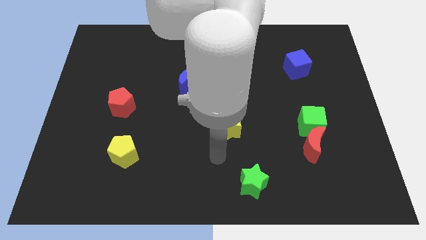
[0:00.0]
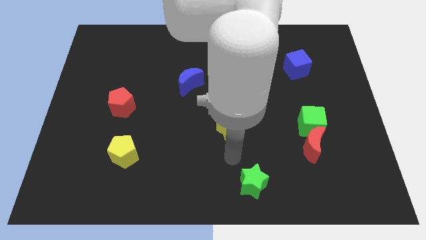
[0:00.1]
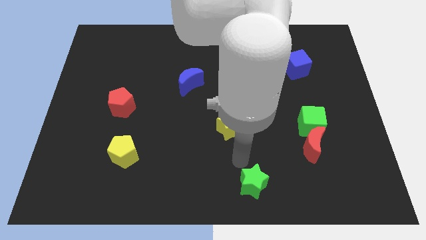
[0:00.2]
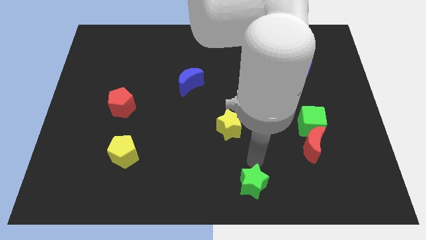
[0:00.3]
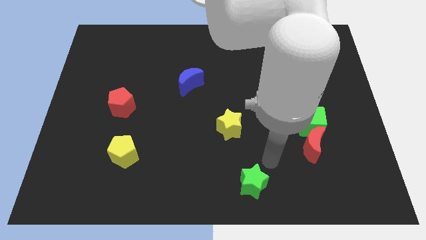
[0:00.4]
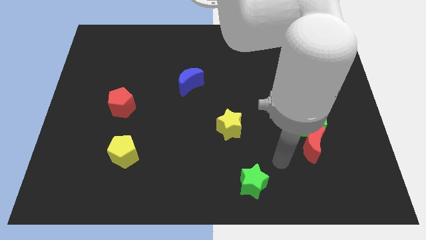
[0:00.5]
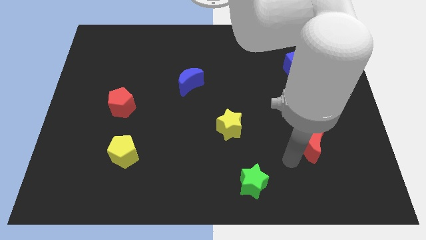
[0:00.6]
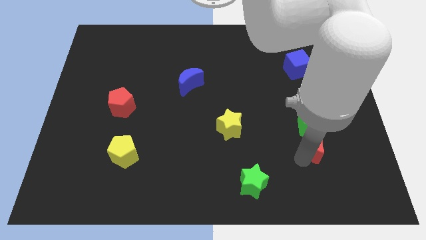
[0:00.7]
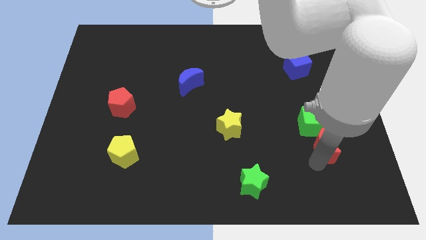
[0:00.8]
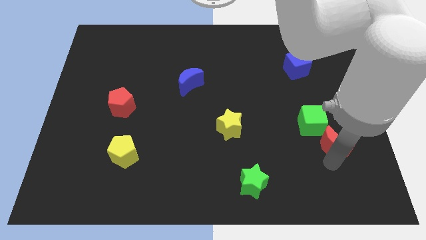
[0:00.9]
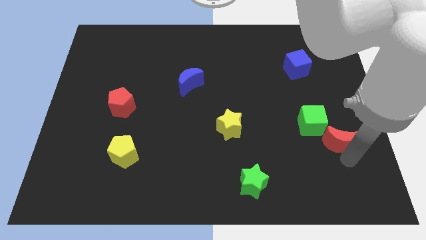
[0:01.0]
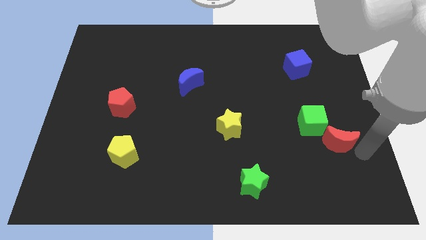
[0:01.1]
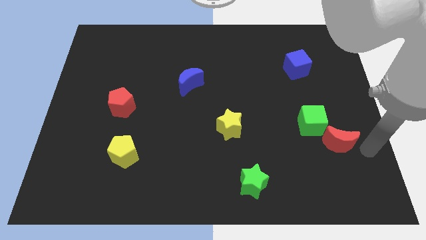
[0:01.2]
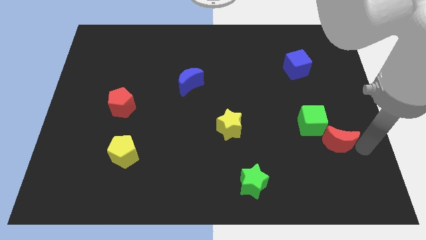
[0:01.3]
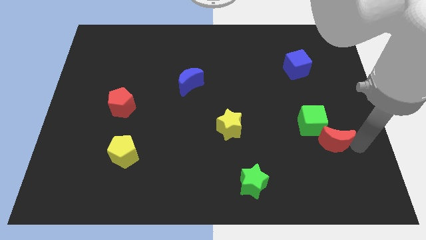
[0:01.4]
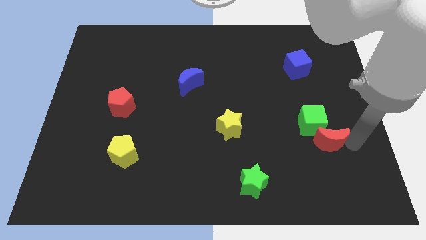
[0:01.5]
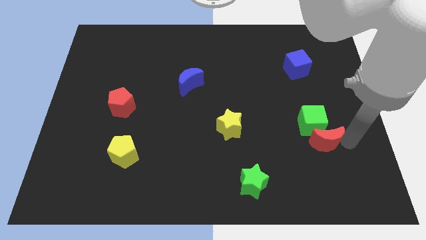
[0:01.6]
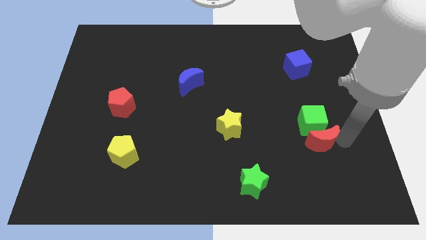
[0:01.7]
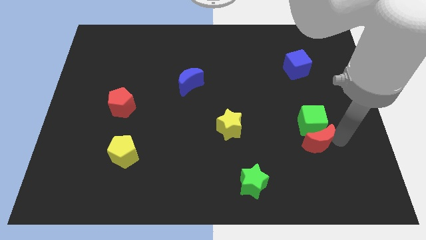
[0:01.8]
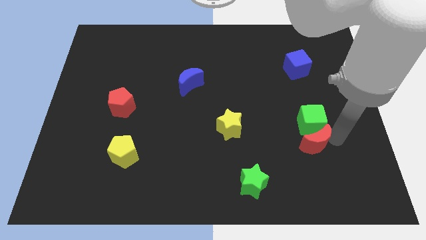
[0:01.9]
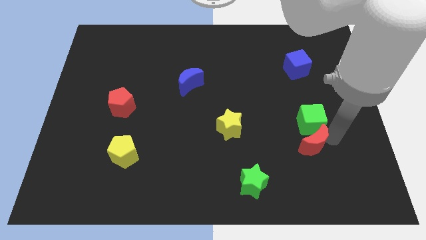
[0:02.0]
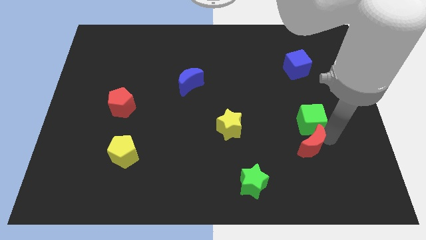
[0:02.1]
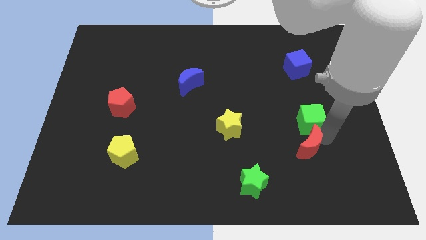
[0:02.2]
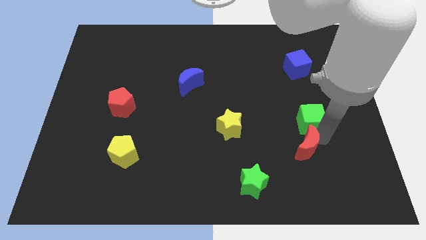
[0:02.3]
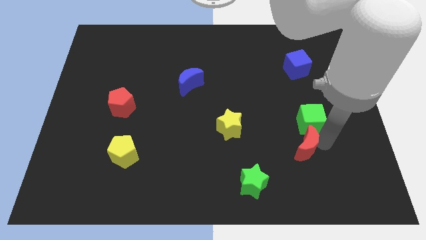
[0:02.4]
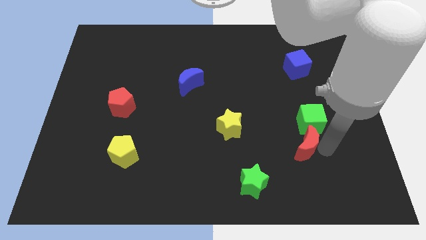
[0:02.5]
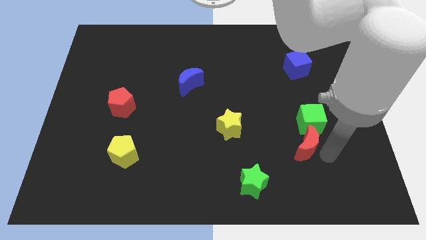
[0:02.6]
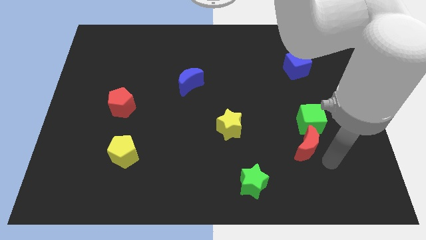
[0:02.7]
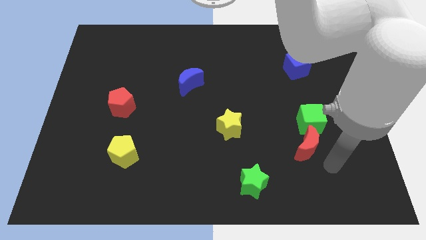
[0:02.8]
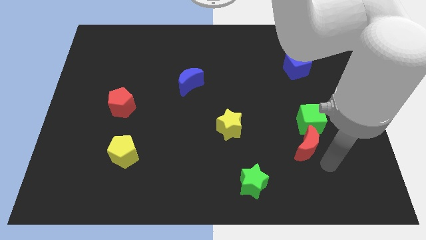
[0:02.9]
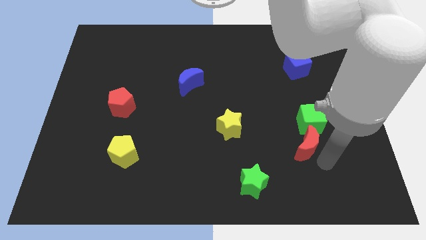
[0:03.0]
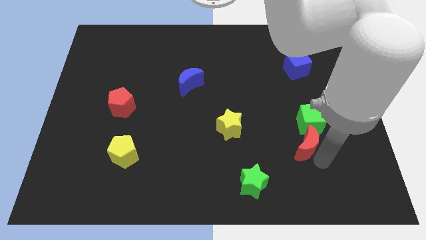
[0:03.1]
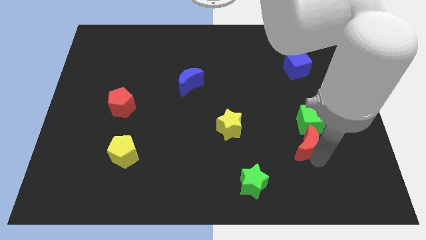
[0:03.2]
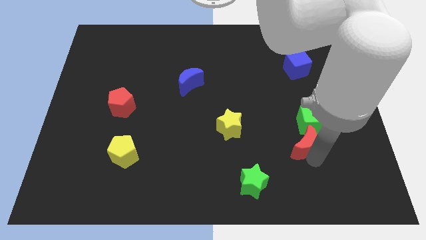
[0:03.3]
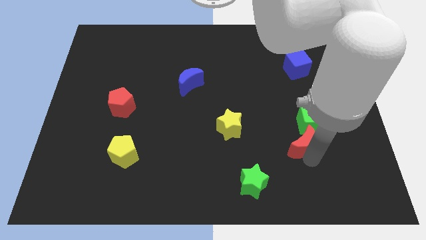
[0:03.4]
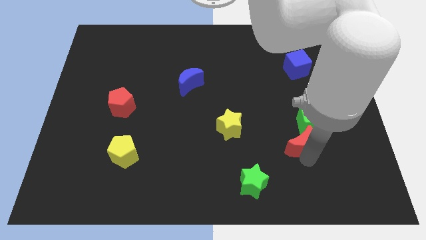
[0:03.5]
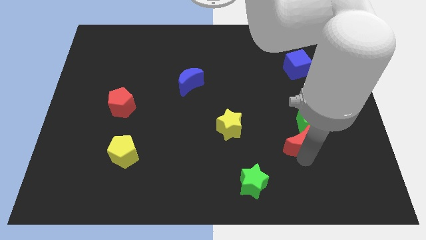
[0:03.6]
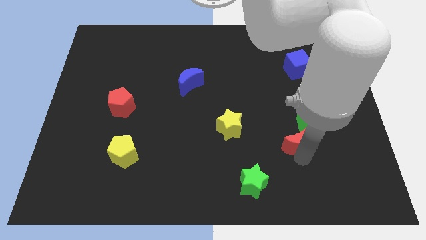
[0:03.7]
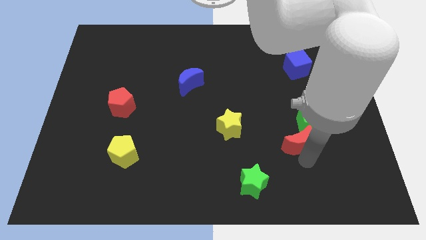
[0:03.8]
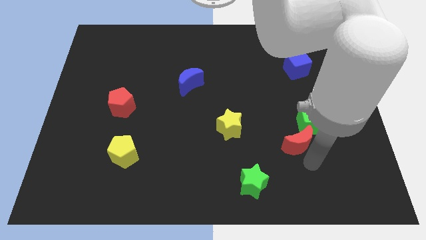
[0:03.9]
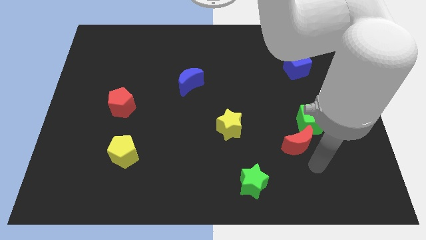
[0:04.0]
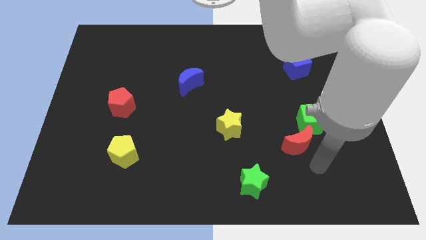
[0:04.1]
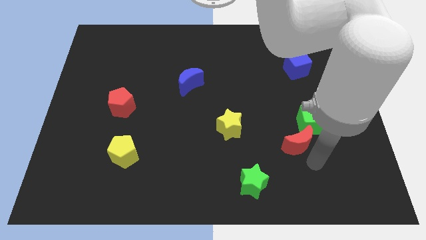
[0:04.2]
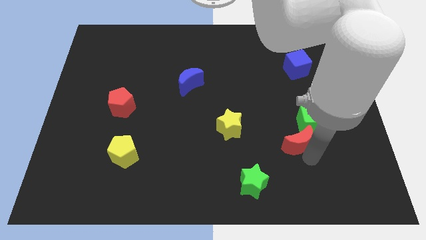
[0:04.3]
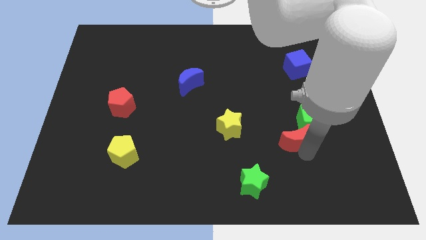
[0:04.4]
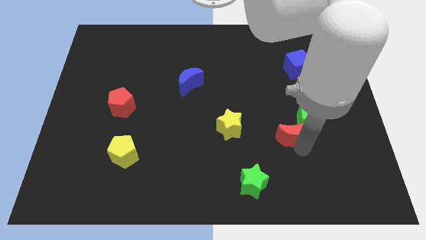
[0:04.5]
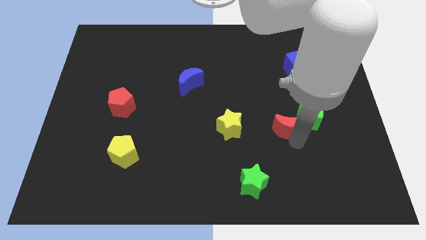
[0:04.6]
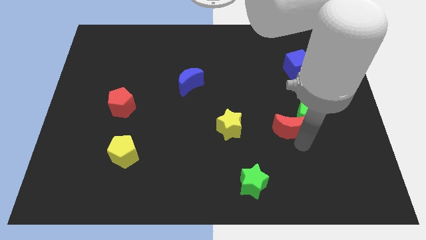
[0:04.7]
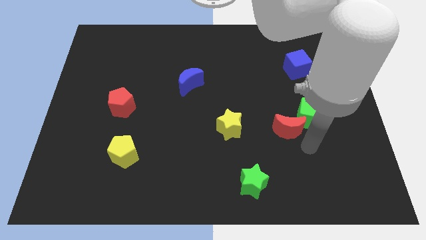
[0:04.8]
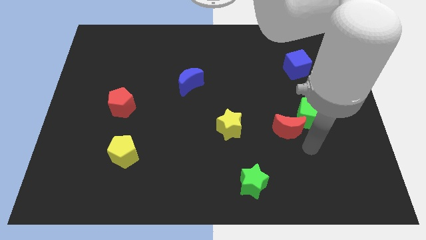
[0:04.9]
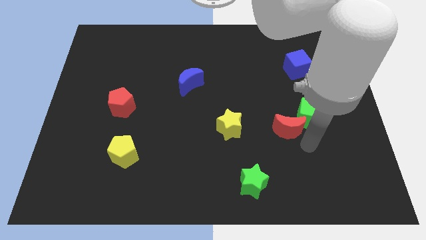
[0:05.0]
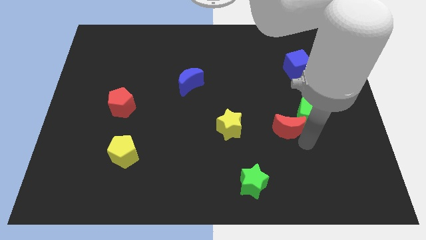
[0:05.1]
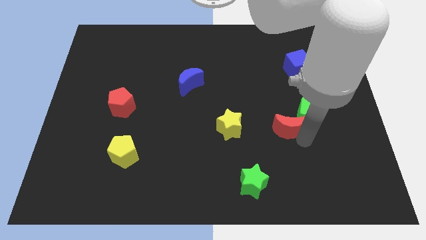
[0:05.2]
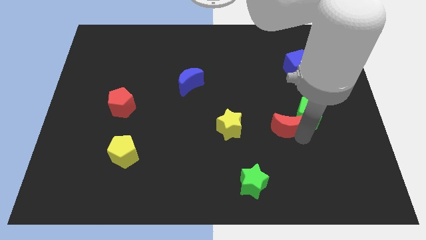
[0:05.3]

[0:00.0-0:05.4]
slide the red moon slightly upwards and then to the left

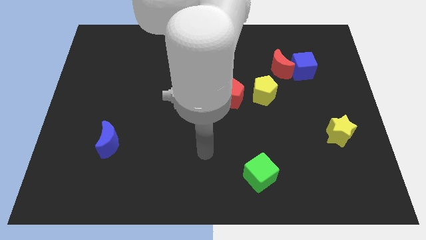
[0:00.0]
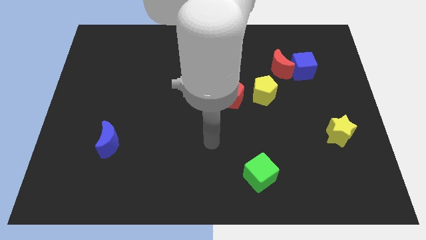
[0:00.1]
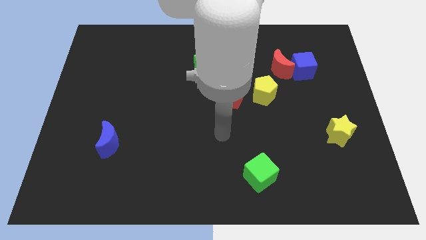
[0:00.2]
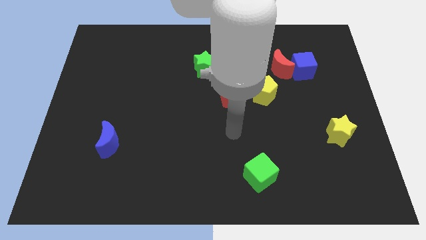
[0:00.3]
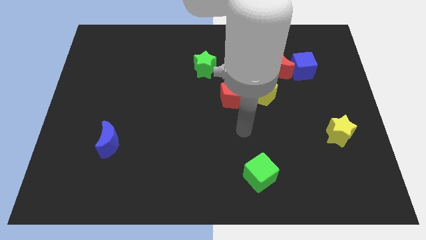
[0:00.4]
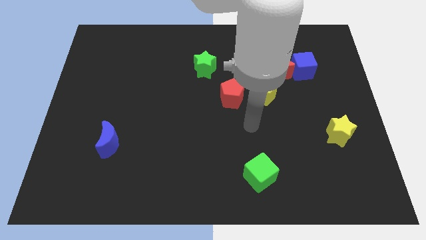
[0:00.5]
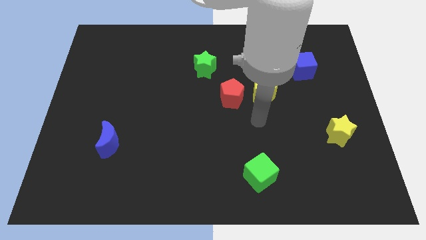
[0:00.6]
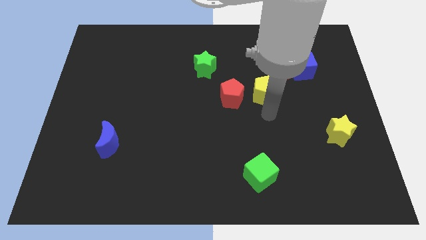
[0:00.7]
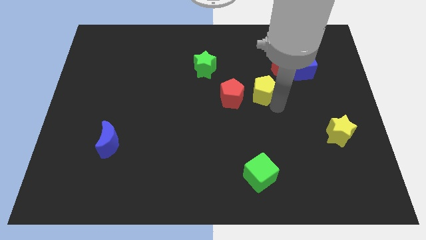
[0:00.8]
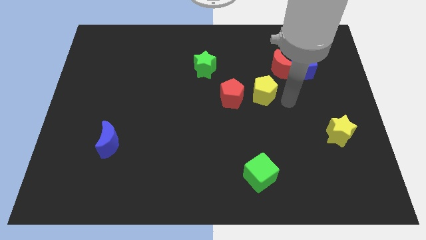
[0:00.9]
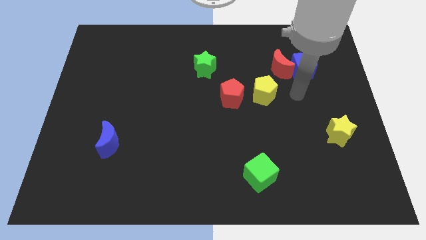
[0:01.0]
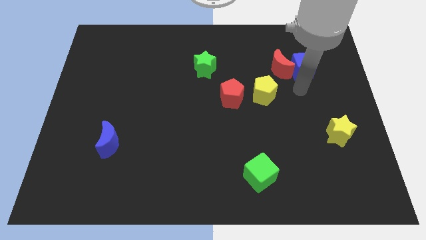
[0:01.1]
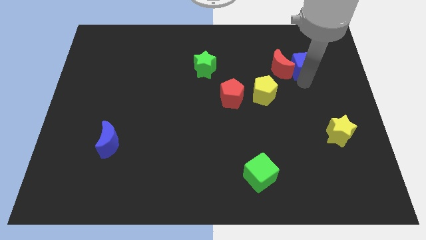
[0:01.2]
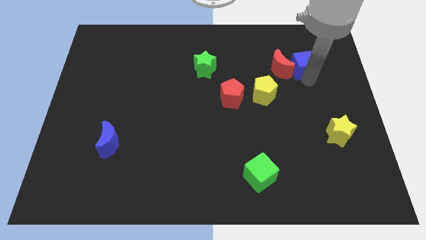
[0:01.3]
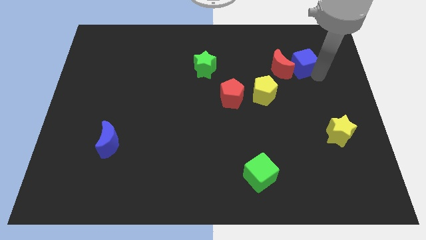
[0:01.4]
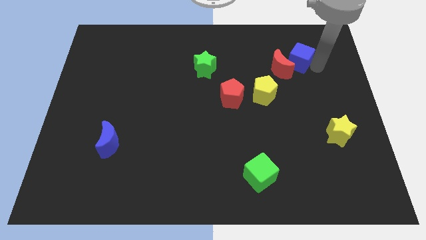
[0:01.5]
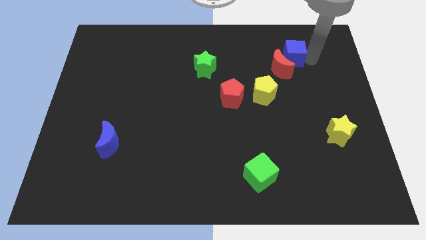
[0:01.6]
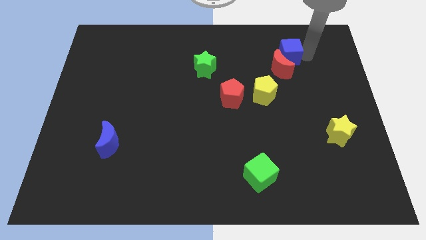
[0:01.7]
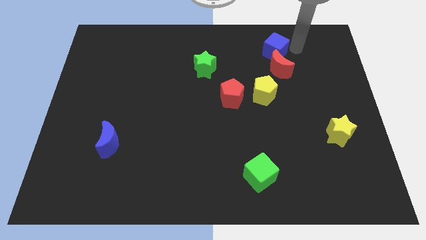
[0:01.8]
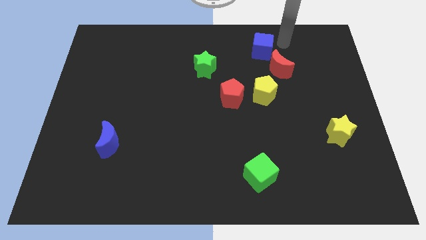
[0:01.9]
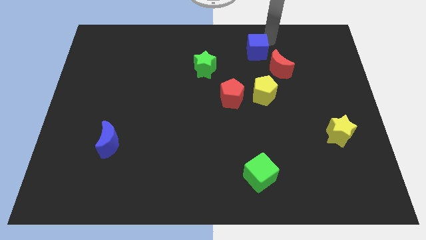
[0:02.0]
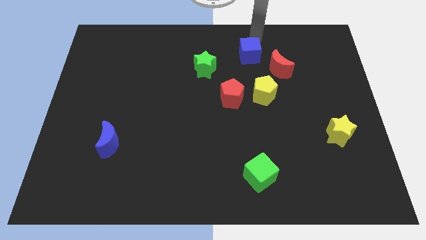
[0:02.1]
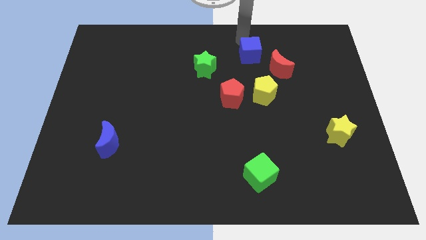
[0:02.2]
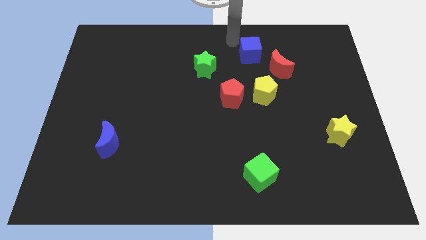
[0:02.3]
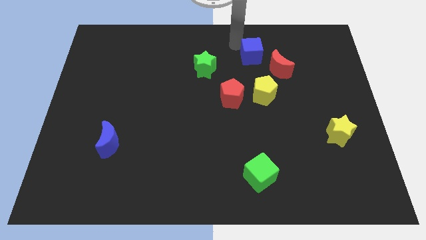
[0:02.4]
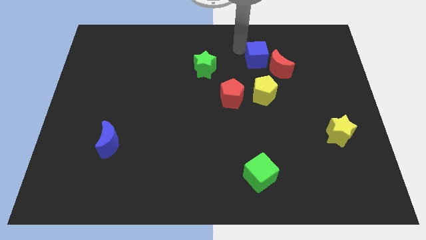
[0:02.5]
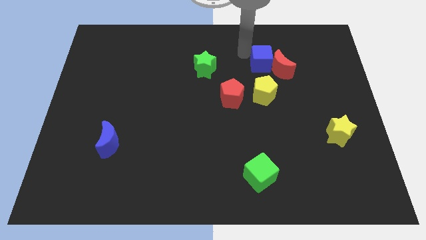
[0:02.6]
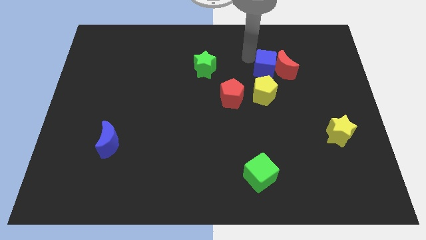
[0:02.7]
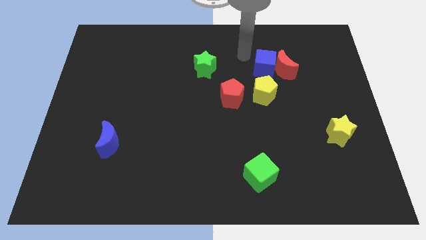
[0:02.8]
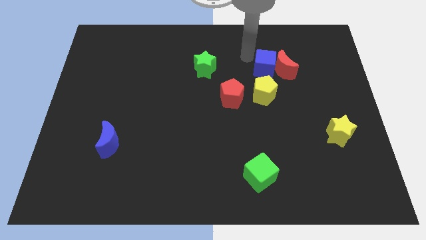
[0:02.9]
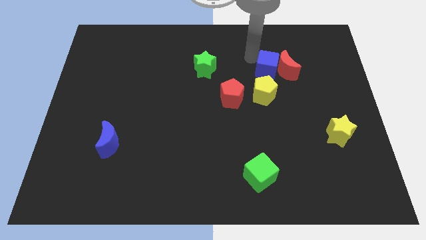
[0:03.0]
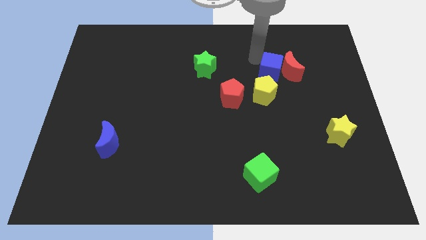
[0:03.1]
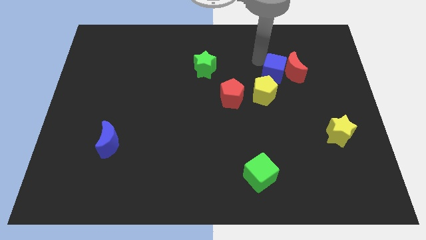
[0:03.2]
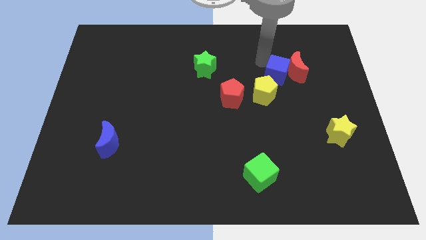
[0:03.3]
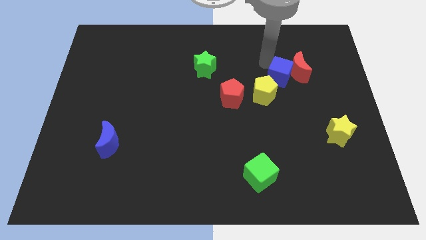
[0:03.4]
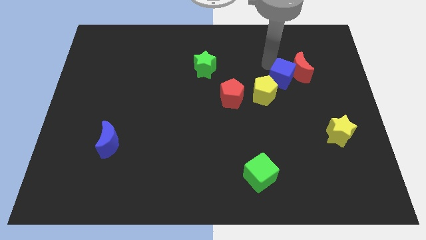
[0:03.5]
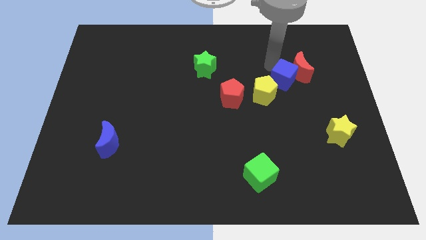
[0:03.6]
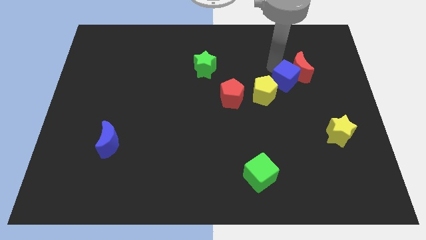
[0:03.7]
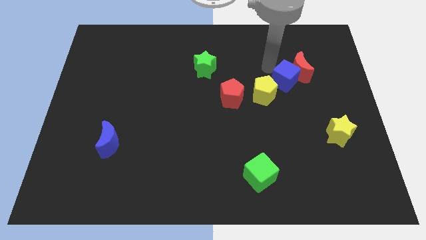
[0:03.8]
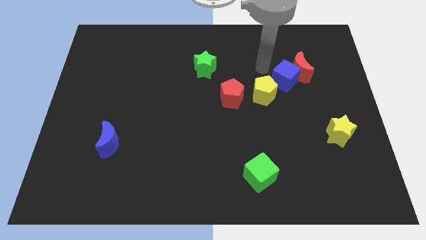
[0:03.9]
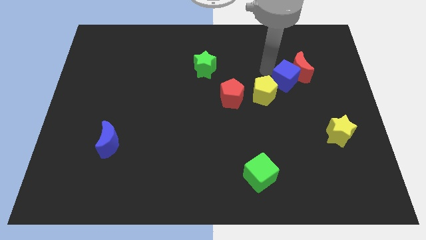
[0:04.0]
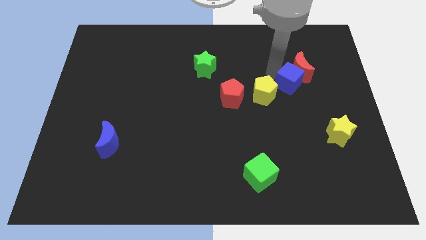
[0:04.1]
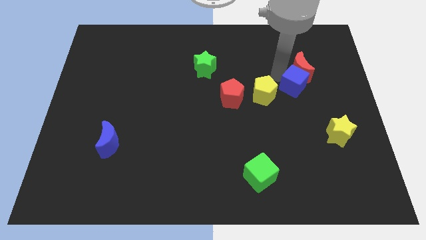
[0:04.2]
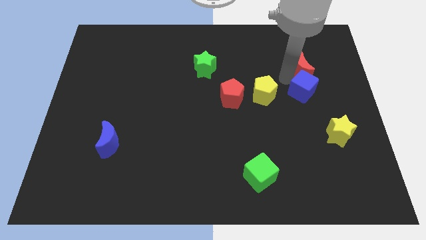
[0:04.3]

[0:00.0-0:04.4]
move the blue cube somewhat down
